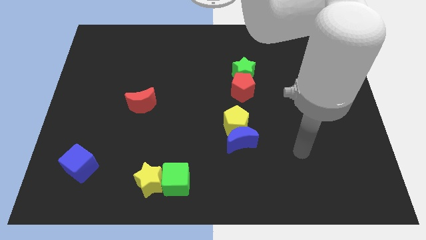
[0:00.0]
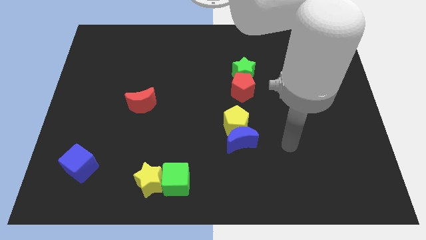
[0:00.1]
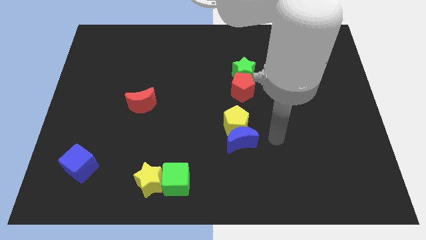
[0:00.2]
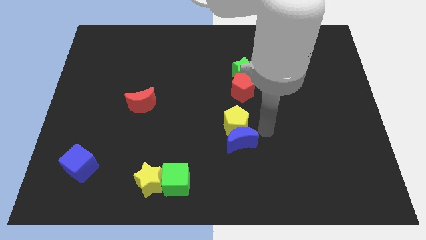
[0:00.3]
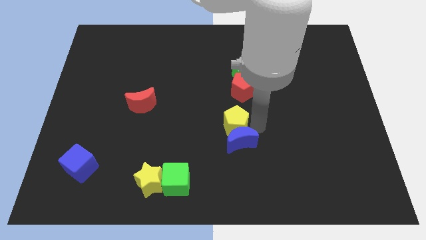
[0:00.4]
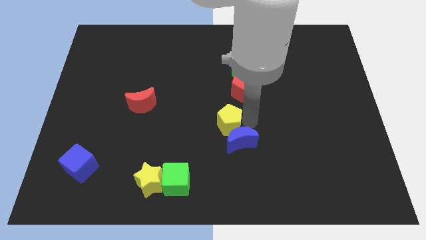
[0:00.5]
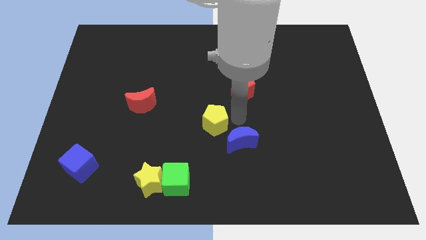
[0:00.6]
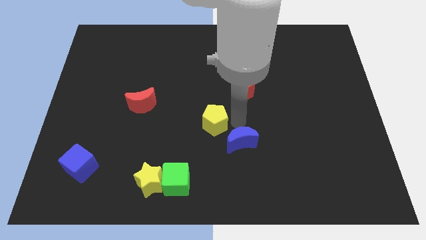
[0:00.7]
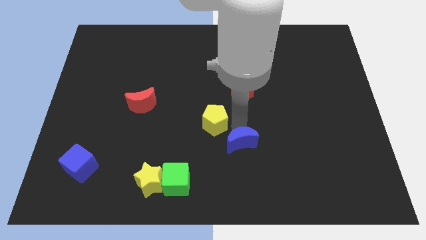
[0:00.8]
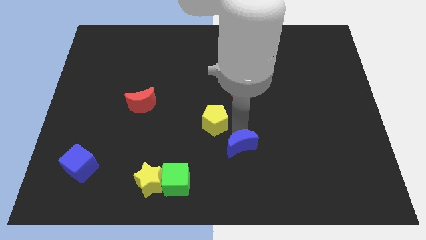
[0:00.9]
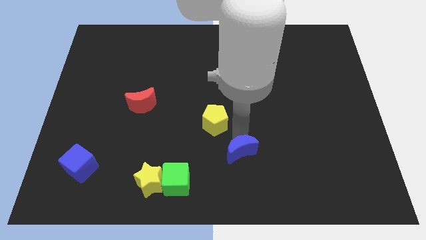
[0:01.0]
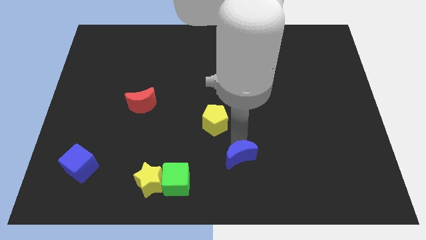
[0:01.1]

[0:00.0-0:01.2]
move the blue moon away from the yellow pentagon

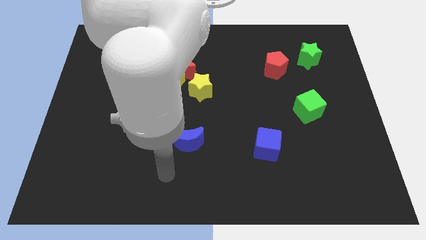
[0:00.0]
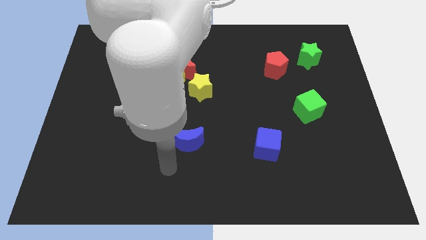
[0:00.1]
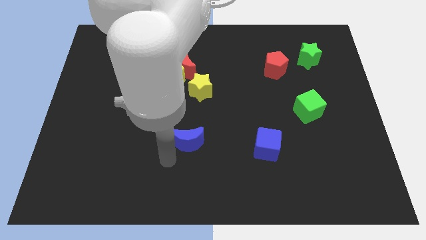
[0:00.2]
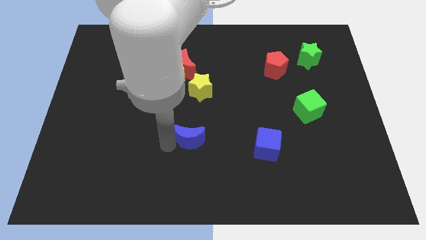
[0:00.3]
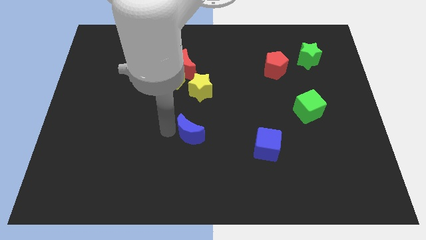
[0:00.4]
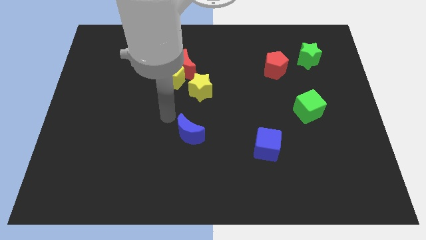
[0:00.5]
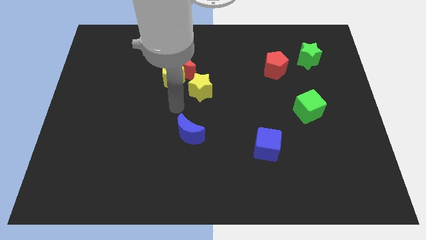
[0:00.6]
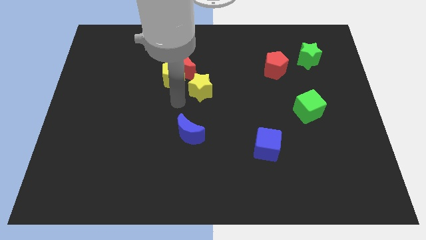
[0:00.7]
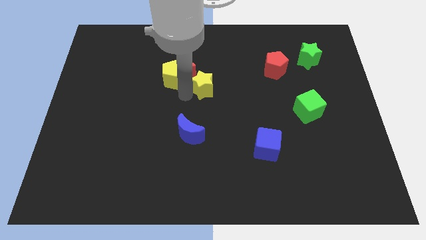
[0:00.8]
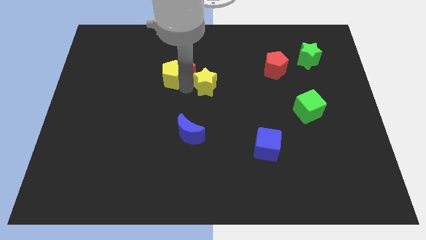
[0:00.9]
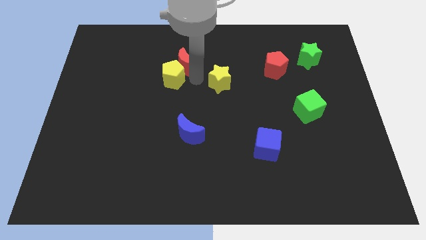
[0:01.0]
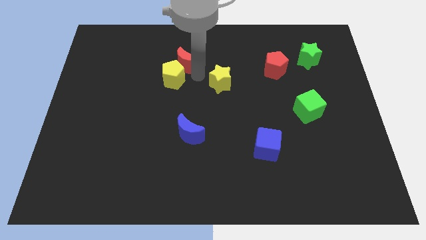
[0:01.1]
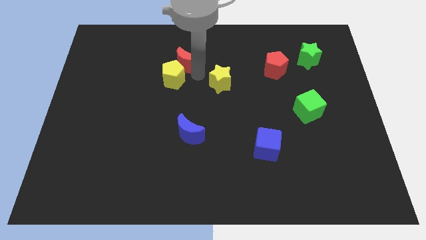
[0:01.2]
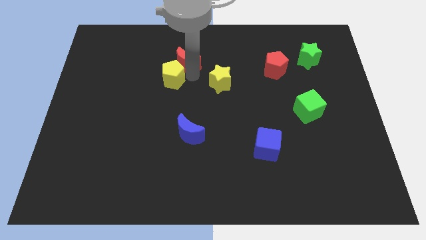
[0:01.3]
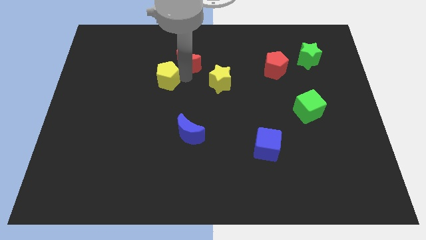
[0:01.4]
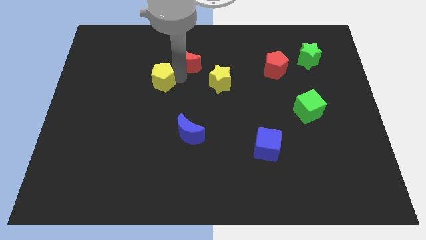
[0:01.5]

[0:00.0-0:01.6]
separate the yellow pentagon from the red moon and yellow star

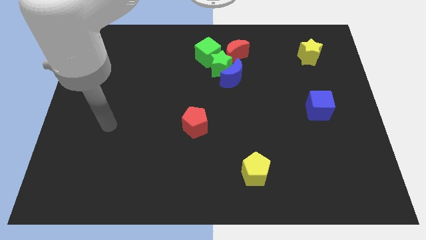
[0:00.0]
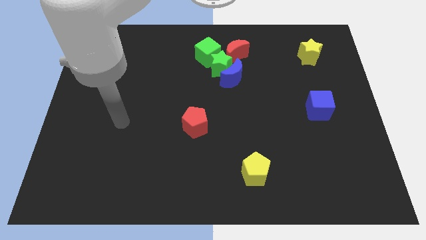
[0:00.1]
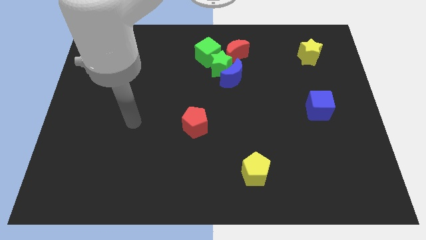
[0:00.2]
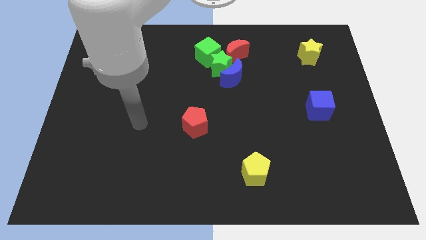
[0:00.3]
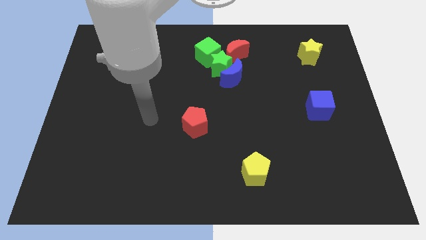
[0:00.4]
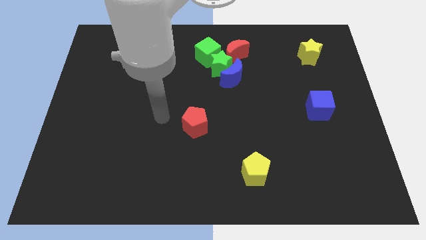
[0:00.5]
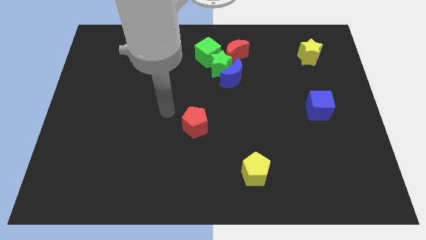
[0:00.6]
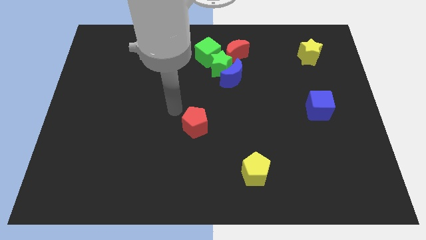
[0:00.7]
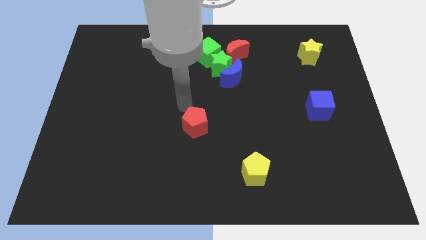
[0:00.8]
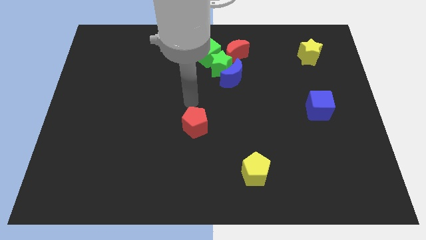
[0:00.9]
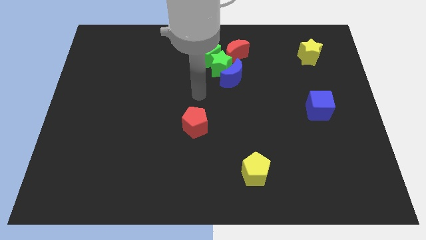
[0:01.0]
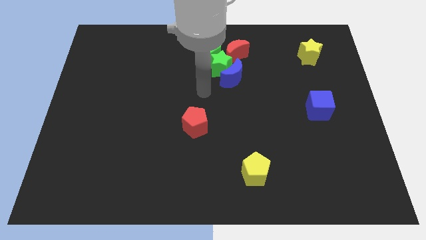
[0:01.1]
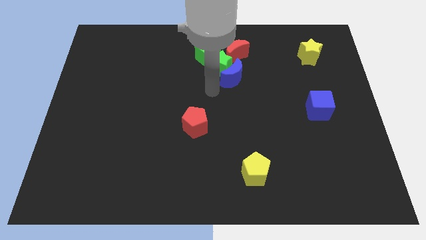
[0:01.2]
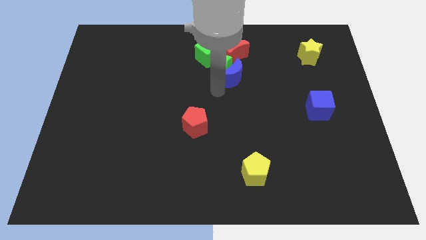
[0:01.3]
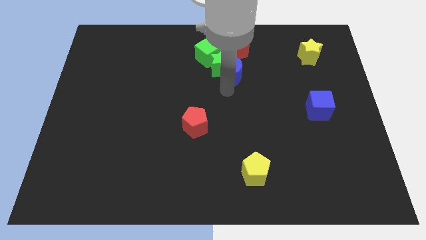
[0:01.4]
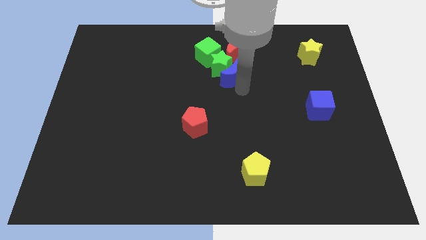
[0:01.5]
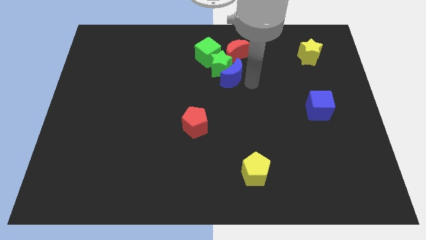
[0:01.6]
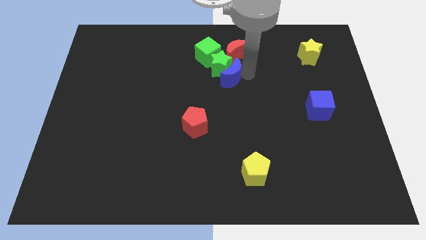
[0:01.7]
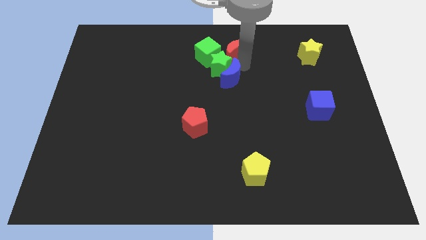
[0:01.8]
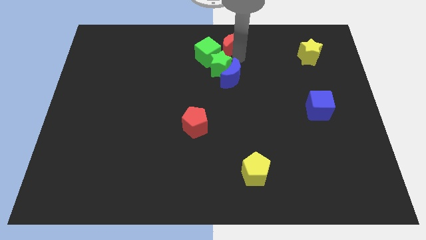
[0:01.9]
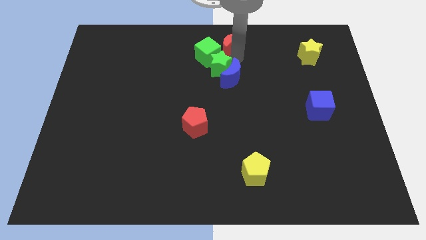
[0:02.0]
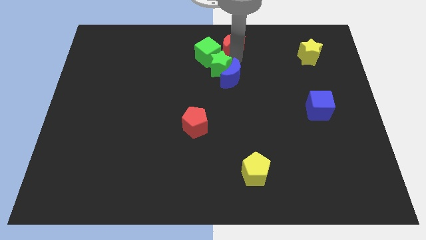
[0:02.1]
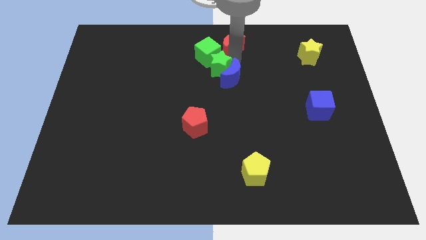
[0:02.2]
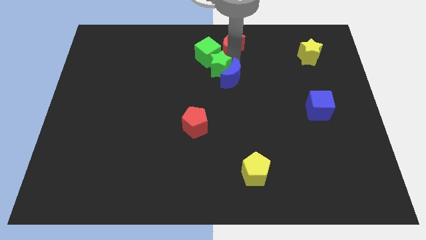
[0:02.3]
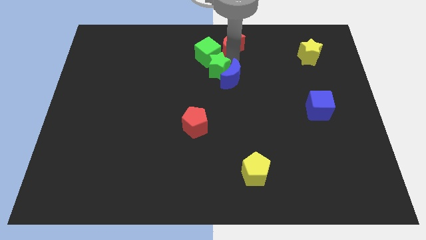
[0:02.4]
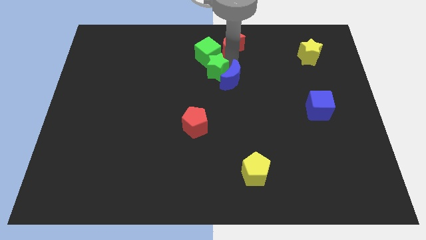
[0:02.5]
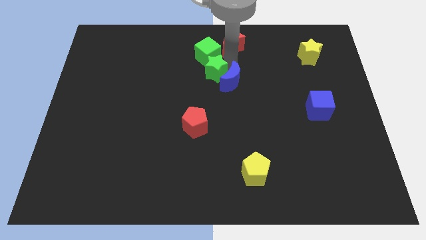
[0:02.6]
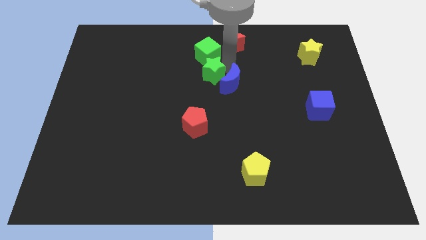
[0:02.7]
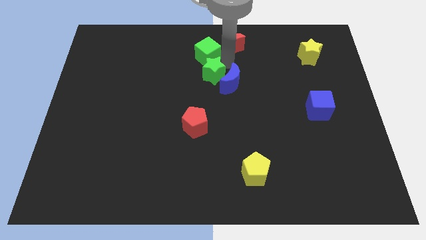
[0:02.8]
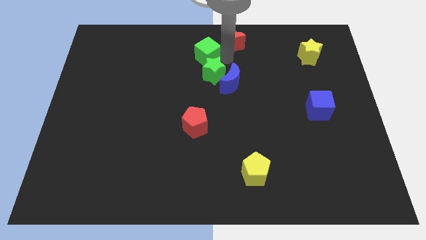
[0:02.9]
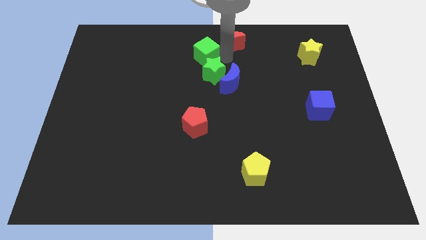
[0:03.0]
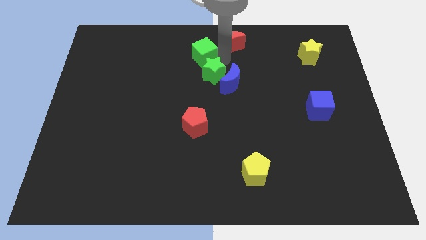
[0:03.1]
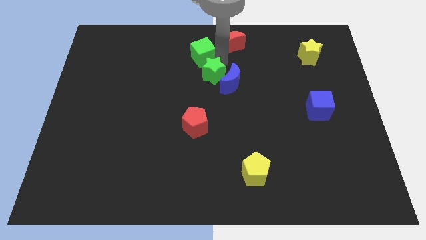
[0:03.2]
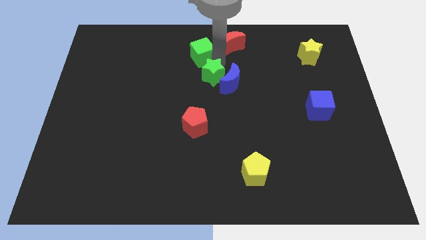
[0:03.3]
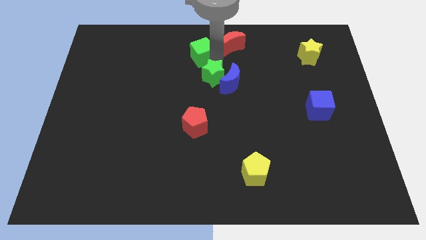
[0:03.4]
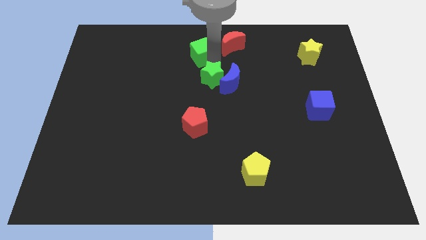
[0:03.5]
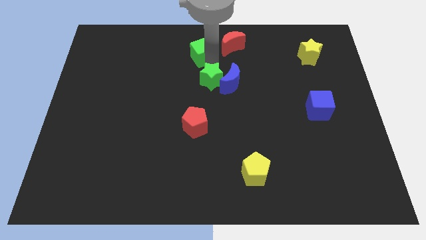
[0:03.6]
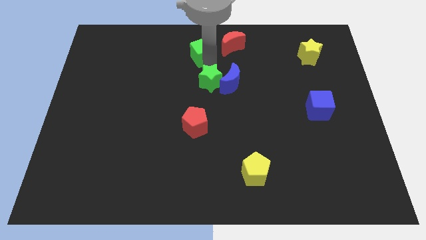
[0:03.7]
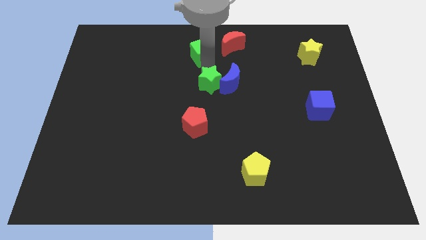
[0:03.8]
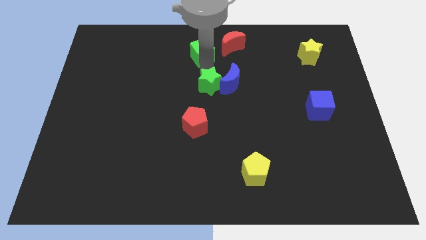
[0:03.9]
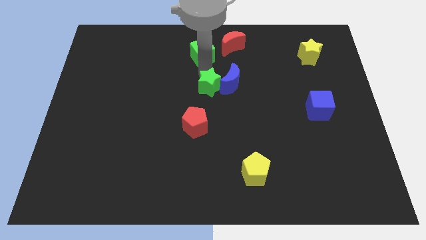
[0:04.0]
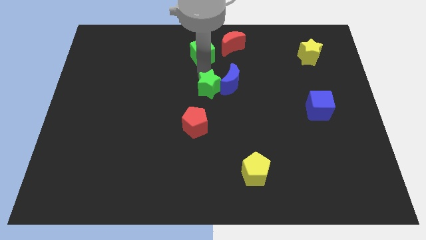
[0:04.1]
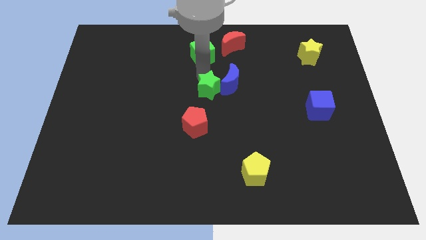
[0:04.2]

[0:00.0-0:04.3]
pull the green star apart from the blue moon, green cube, and red moon

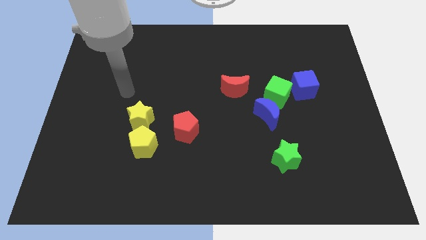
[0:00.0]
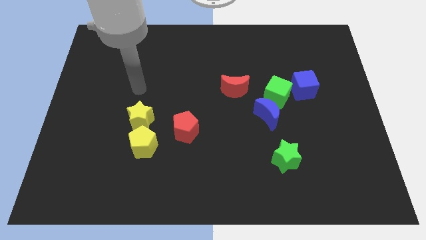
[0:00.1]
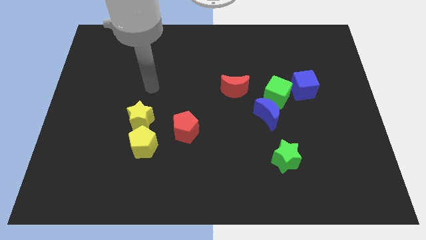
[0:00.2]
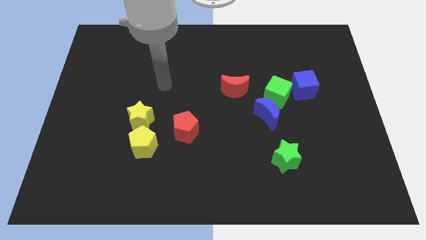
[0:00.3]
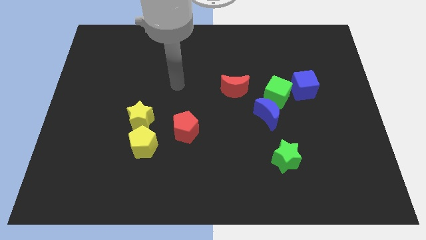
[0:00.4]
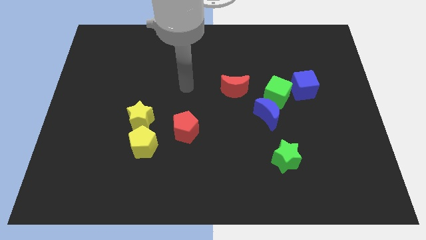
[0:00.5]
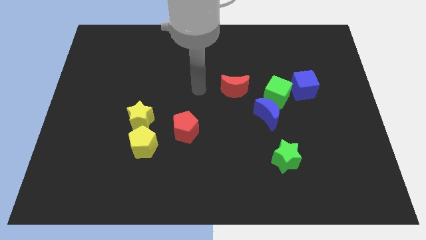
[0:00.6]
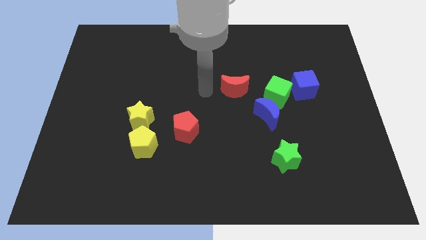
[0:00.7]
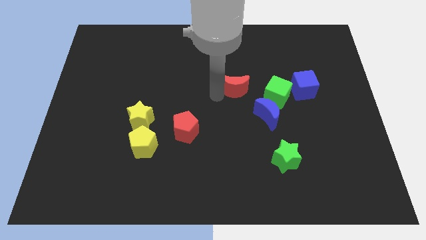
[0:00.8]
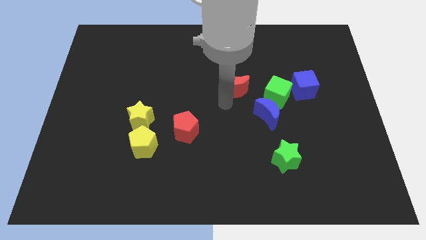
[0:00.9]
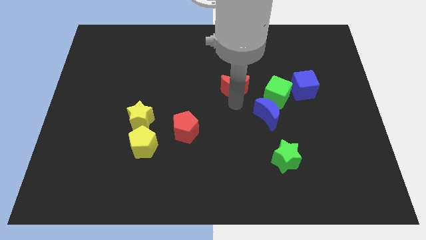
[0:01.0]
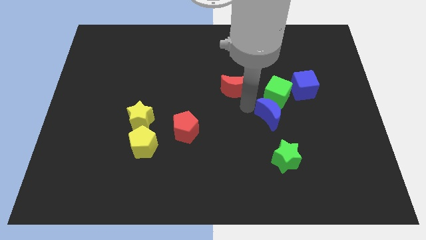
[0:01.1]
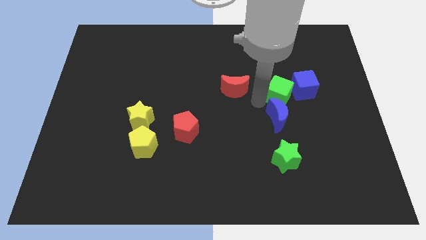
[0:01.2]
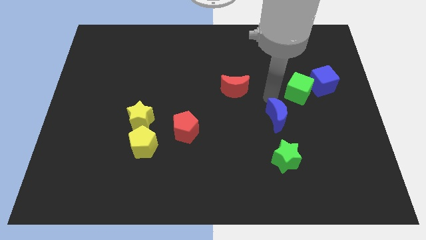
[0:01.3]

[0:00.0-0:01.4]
pull the blue moon apart from the green cube

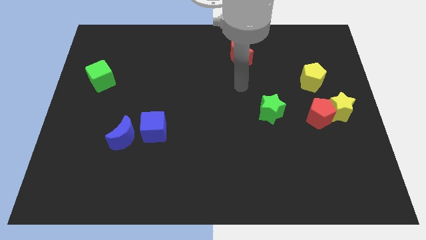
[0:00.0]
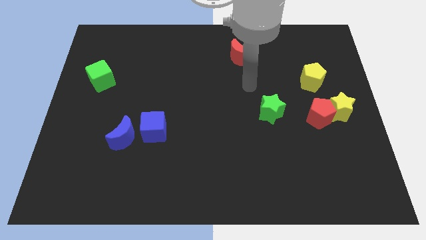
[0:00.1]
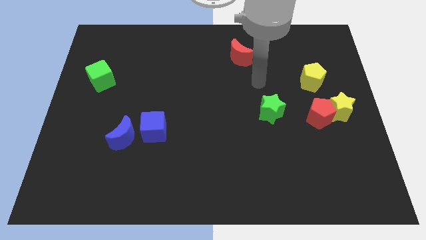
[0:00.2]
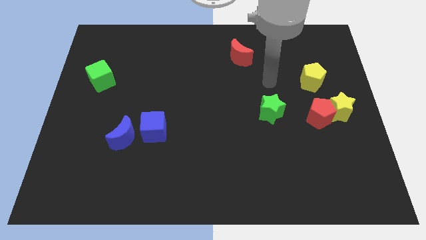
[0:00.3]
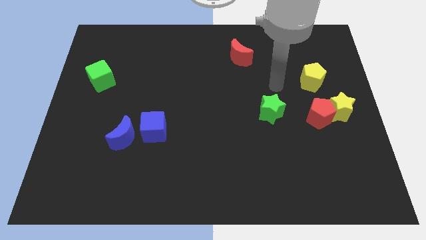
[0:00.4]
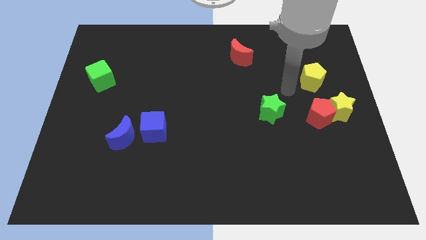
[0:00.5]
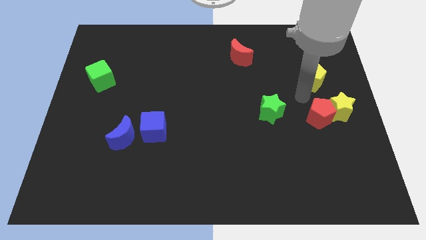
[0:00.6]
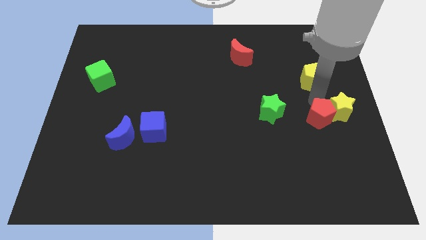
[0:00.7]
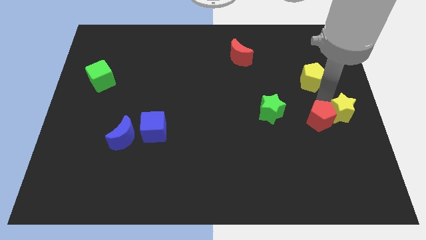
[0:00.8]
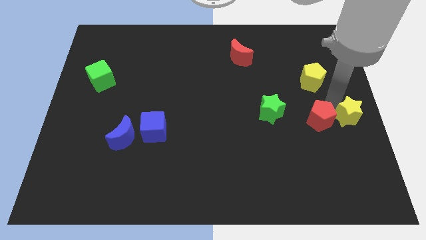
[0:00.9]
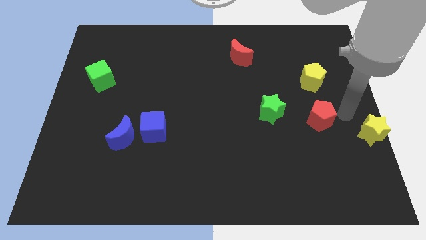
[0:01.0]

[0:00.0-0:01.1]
pull the red pentagon apart from the yellow star
